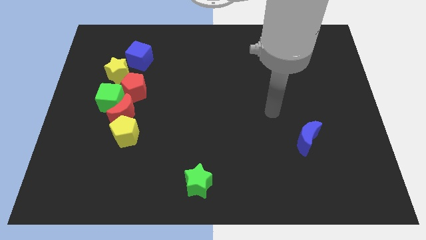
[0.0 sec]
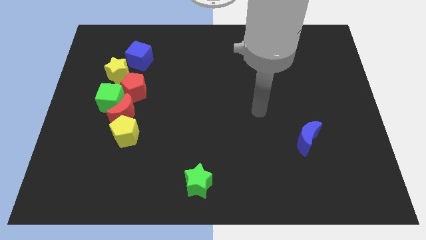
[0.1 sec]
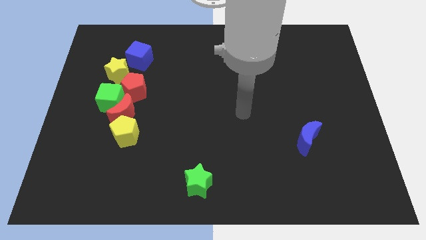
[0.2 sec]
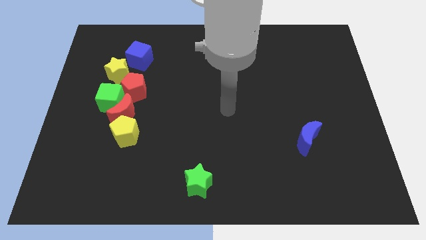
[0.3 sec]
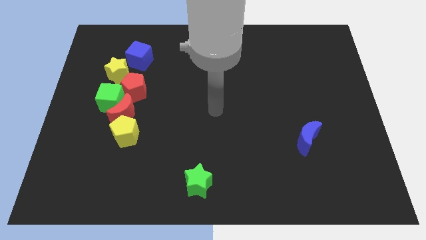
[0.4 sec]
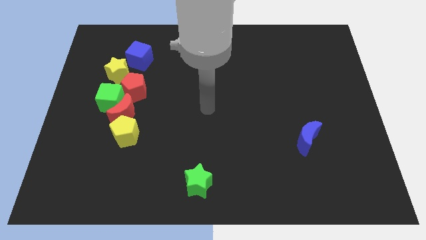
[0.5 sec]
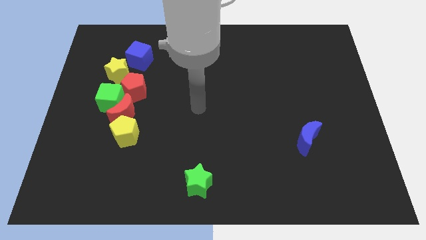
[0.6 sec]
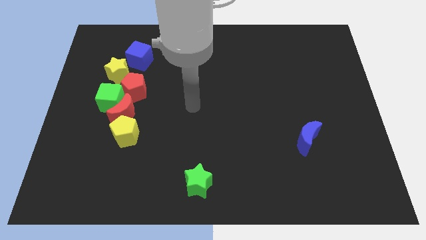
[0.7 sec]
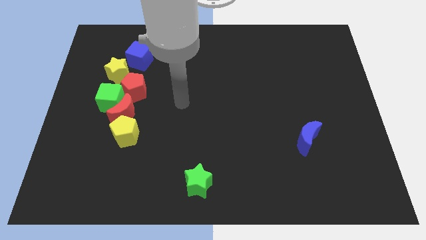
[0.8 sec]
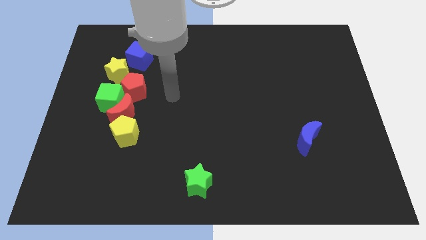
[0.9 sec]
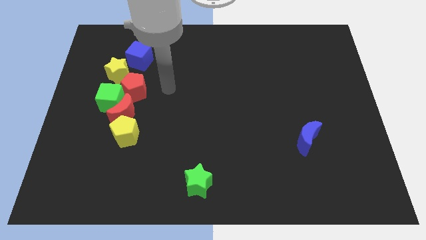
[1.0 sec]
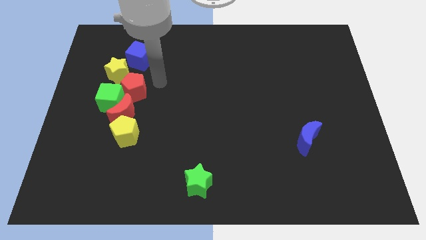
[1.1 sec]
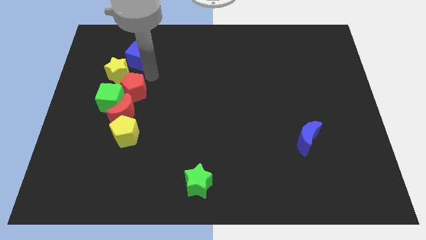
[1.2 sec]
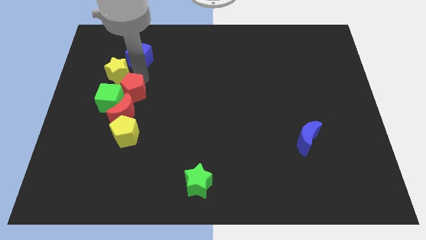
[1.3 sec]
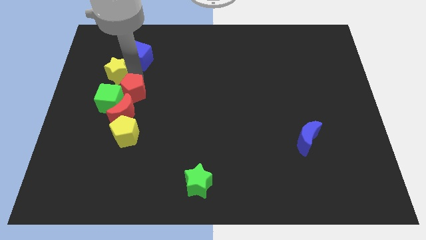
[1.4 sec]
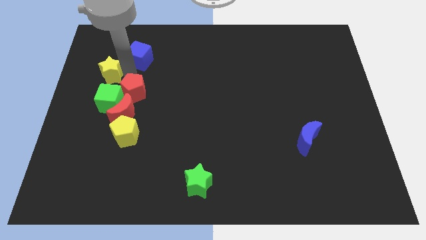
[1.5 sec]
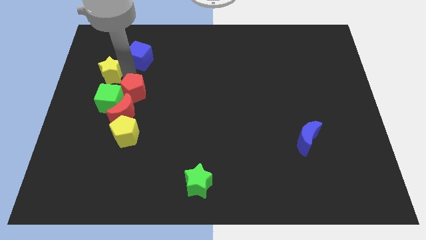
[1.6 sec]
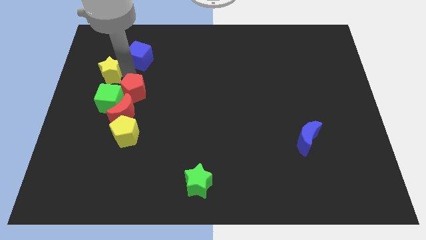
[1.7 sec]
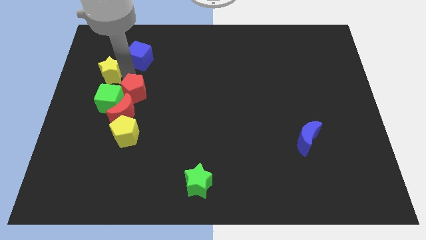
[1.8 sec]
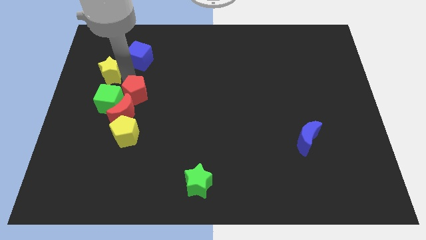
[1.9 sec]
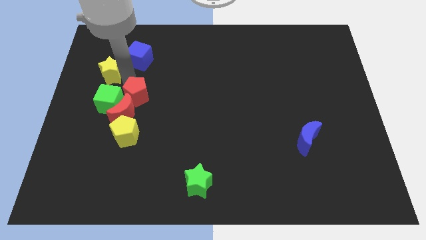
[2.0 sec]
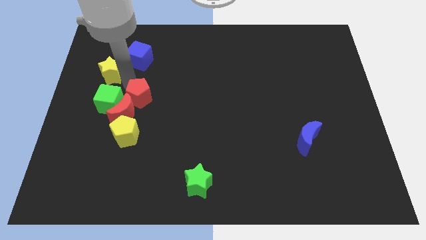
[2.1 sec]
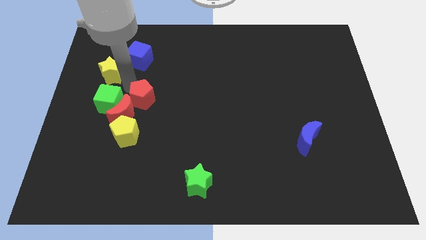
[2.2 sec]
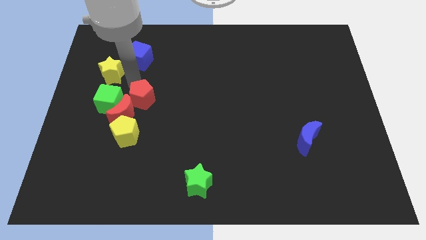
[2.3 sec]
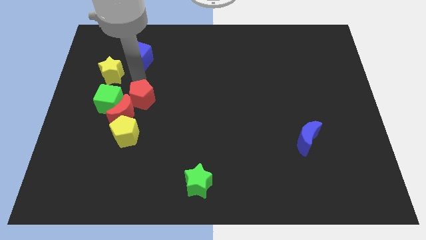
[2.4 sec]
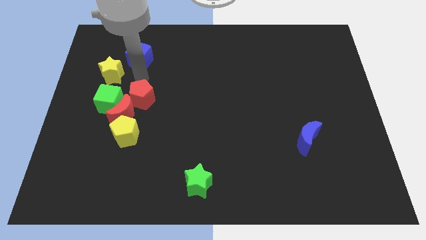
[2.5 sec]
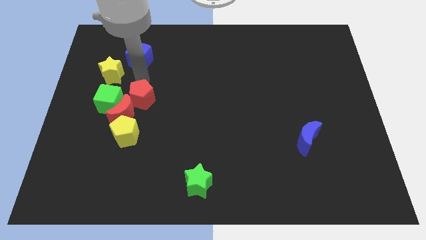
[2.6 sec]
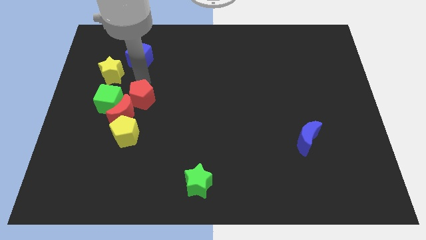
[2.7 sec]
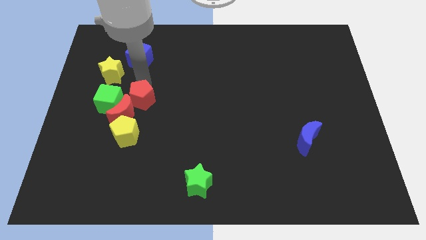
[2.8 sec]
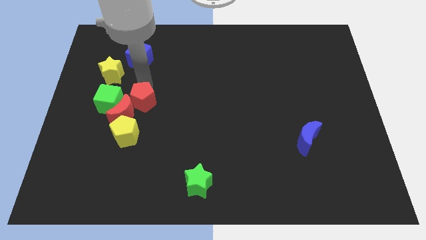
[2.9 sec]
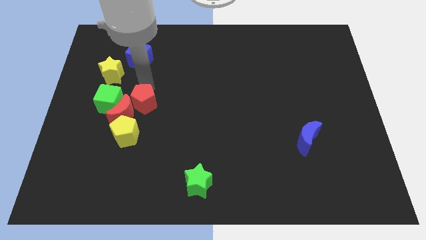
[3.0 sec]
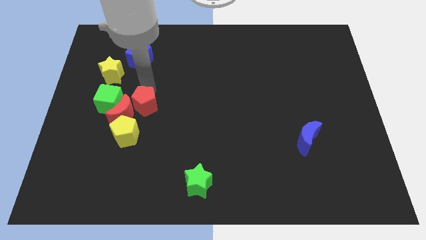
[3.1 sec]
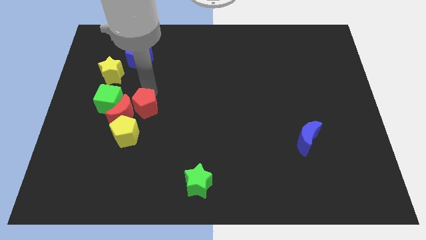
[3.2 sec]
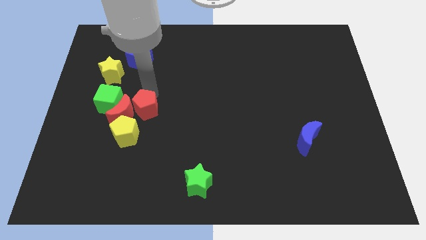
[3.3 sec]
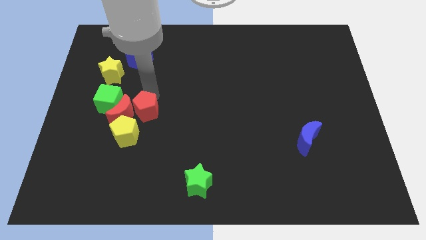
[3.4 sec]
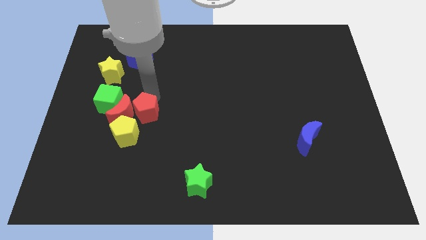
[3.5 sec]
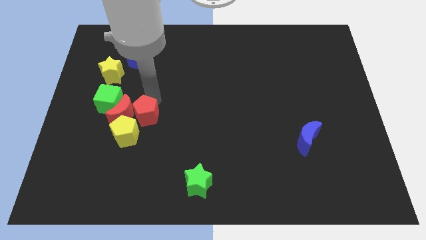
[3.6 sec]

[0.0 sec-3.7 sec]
push the red pentagon a little bit down

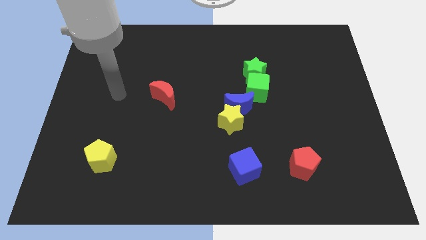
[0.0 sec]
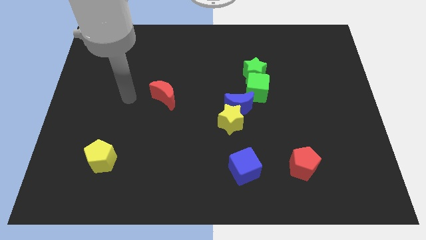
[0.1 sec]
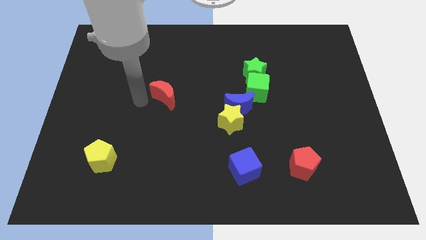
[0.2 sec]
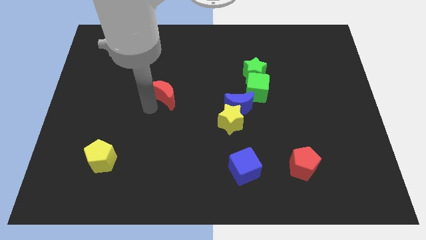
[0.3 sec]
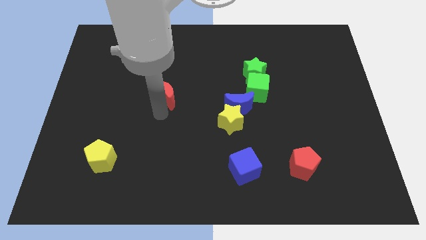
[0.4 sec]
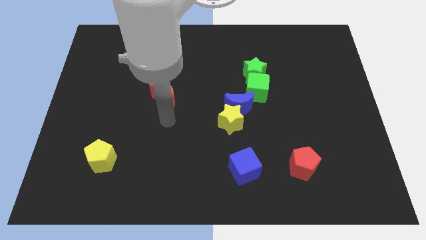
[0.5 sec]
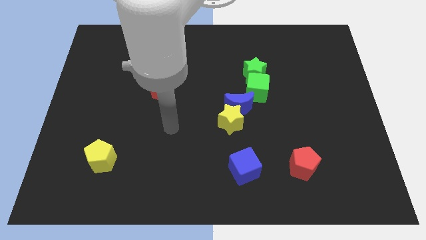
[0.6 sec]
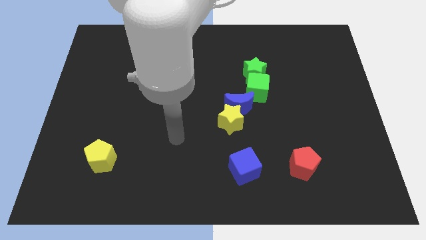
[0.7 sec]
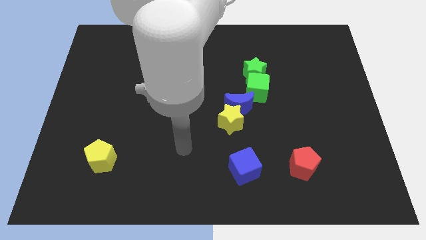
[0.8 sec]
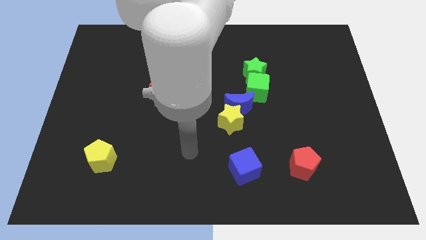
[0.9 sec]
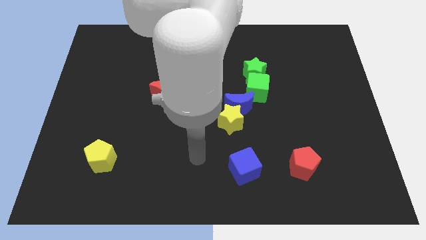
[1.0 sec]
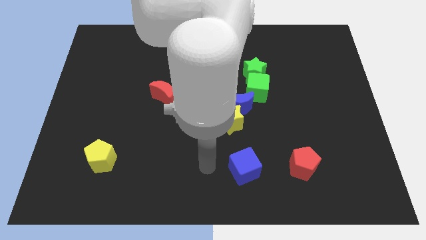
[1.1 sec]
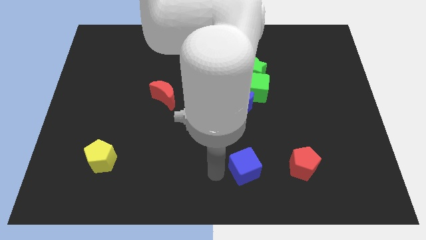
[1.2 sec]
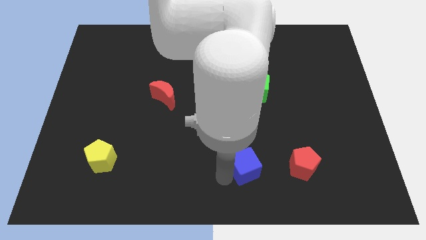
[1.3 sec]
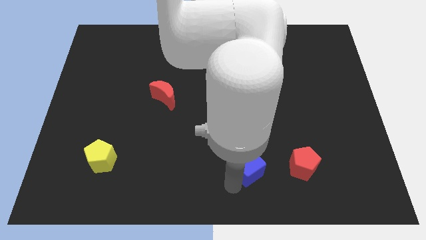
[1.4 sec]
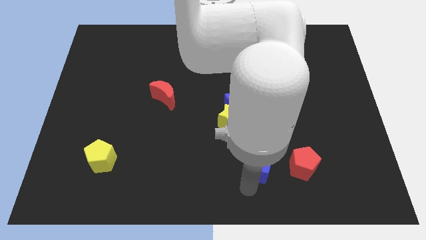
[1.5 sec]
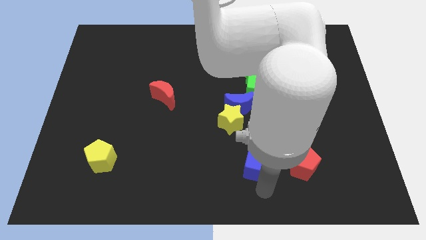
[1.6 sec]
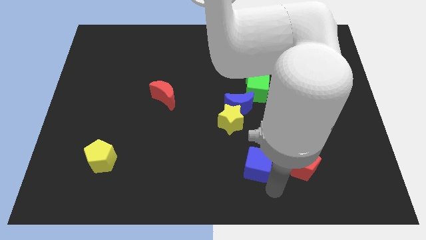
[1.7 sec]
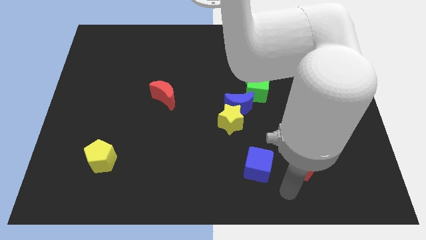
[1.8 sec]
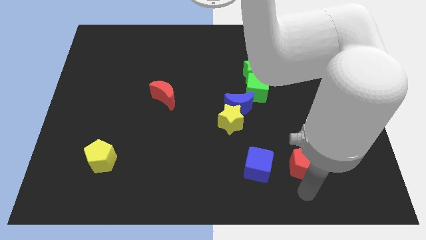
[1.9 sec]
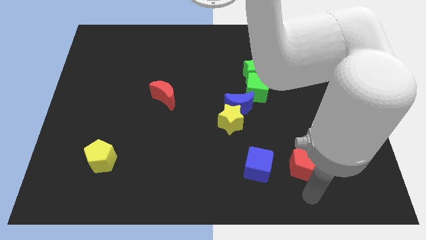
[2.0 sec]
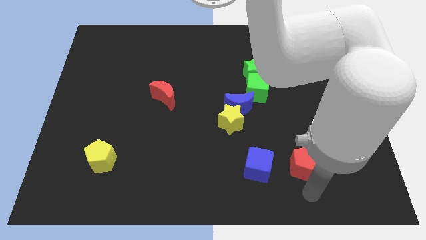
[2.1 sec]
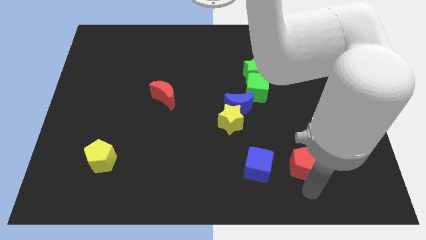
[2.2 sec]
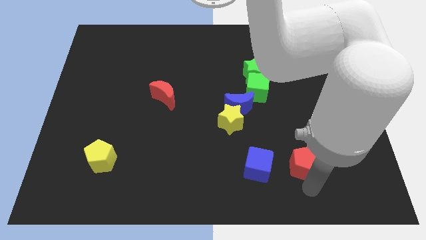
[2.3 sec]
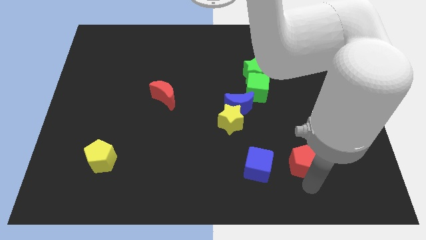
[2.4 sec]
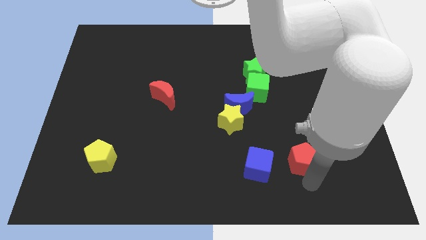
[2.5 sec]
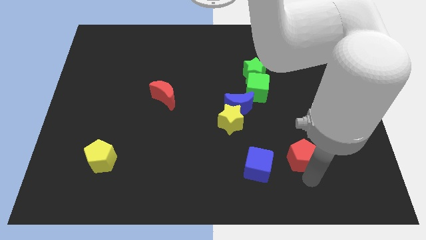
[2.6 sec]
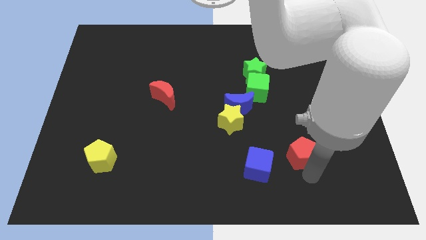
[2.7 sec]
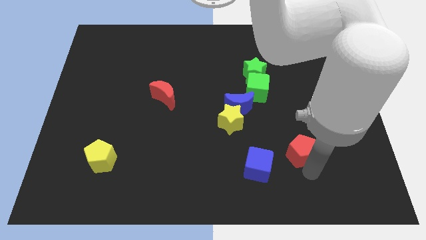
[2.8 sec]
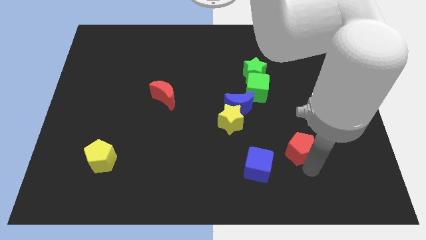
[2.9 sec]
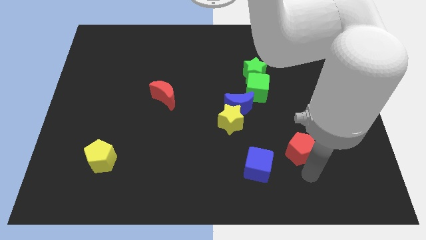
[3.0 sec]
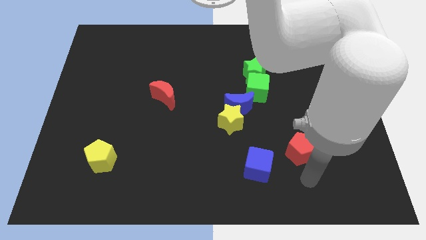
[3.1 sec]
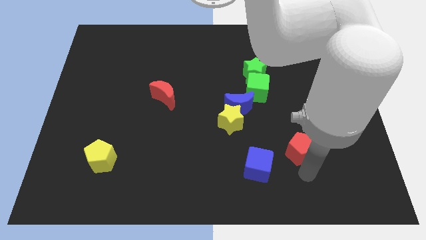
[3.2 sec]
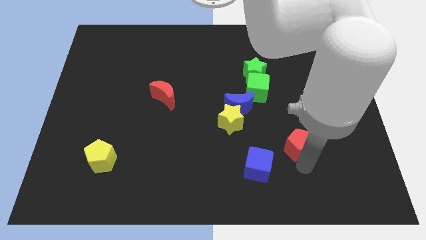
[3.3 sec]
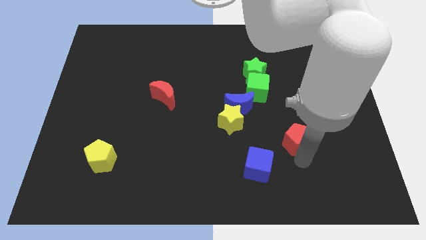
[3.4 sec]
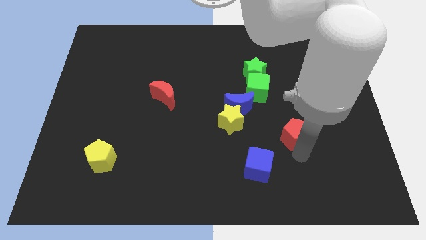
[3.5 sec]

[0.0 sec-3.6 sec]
push the red pentagon a little up

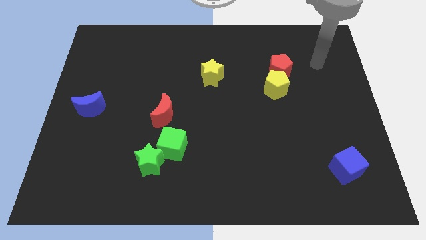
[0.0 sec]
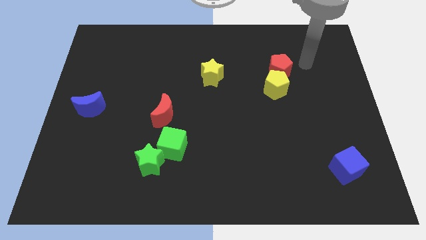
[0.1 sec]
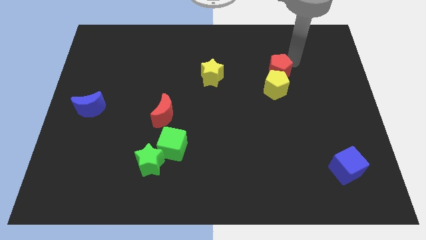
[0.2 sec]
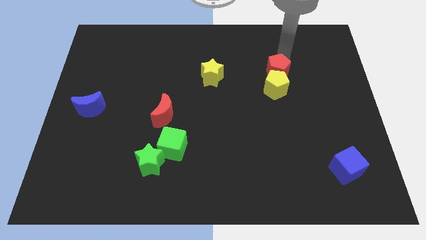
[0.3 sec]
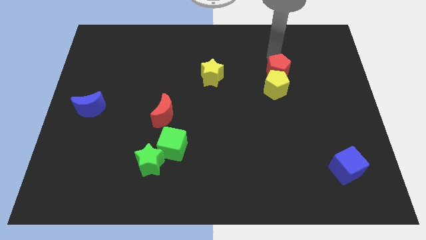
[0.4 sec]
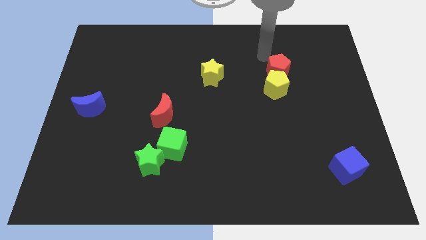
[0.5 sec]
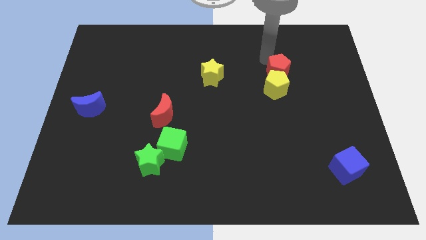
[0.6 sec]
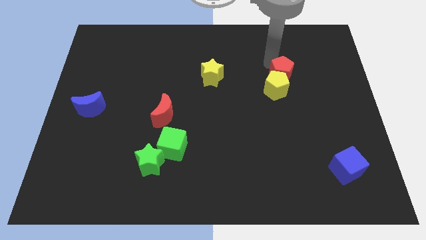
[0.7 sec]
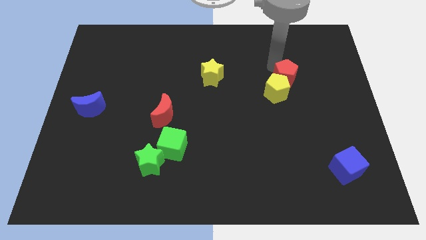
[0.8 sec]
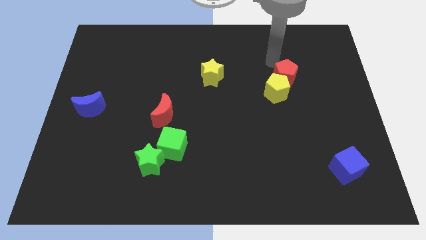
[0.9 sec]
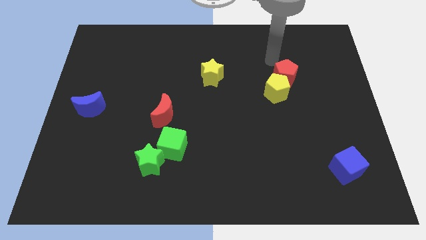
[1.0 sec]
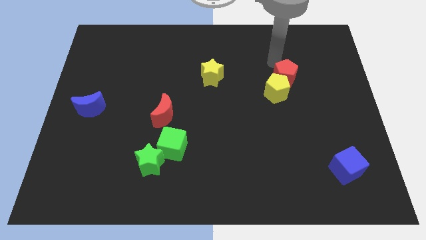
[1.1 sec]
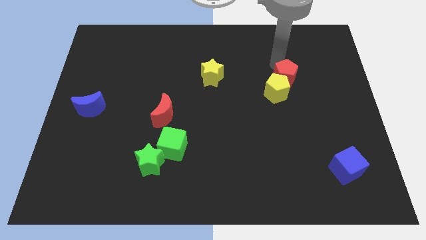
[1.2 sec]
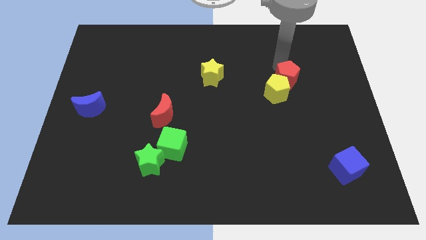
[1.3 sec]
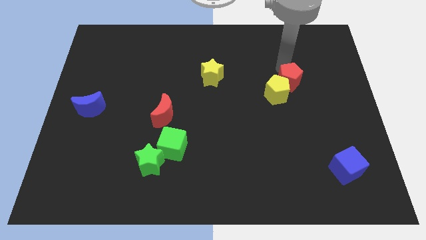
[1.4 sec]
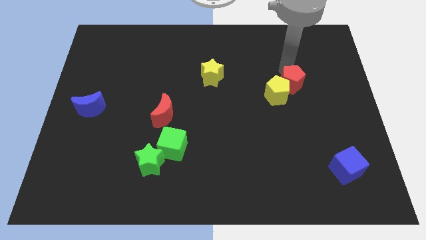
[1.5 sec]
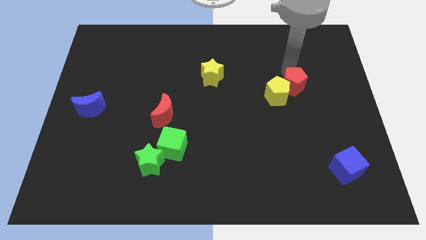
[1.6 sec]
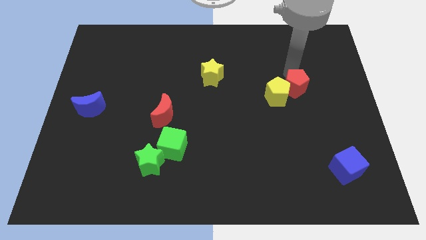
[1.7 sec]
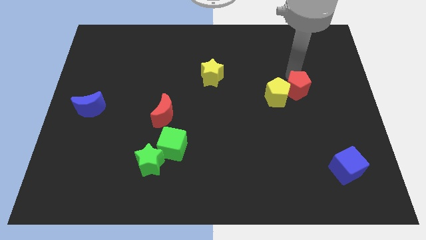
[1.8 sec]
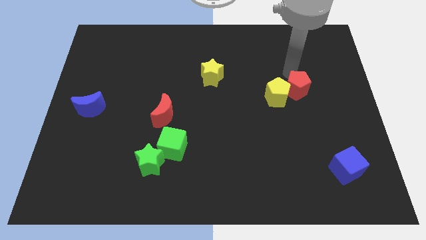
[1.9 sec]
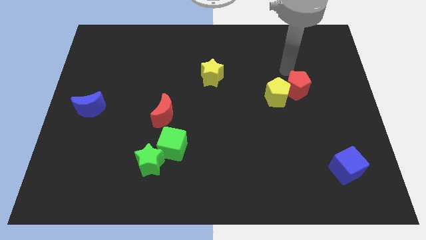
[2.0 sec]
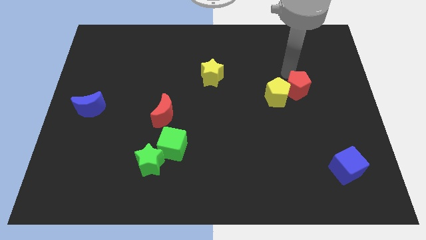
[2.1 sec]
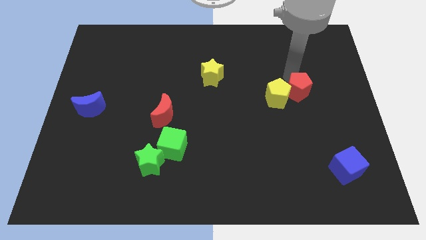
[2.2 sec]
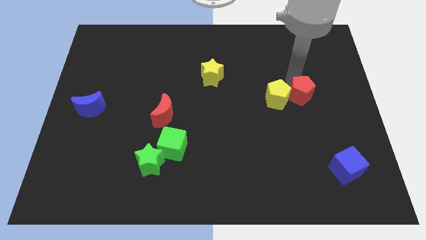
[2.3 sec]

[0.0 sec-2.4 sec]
push the red pentagon slightly downwards
